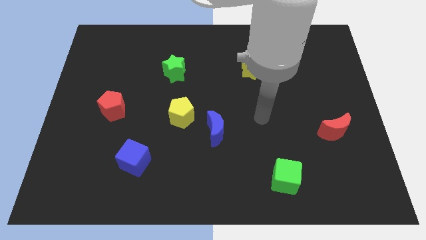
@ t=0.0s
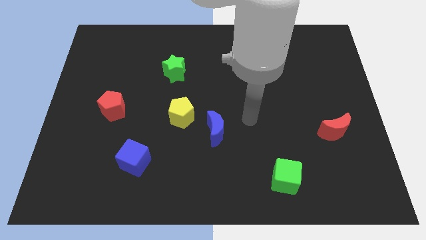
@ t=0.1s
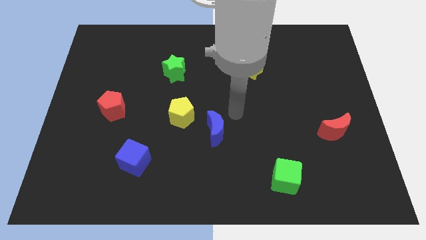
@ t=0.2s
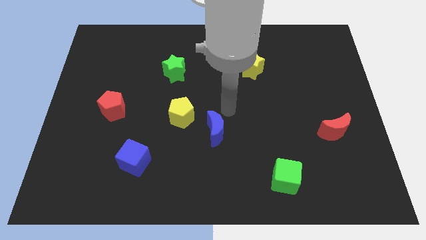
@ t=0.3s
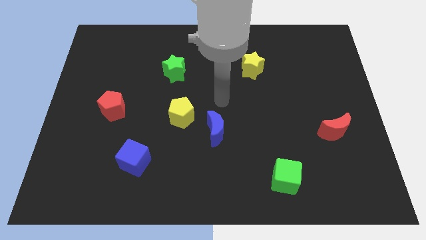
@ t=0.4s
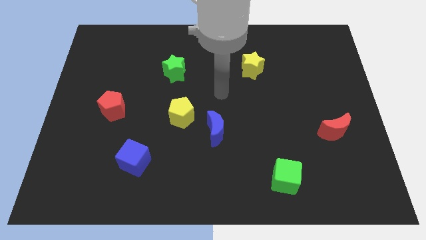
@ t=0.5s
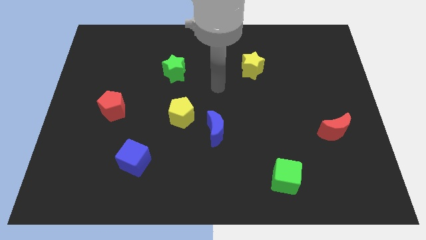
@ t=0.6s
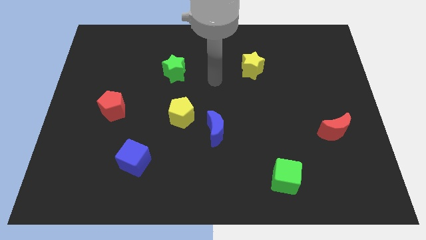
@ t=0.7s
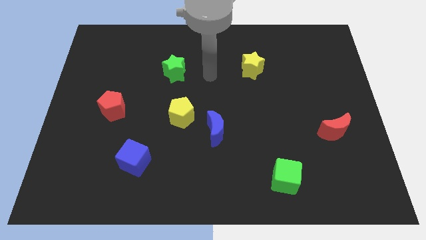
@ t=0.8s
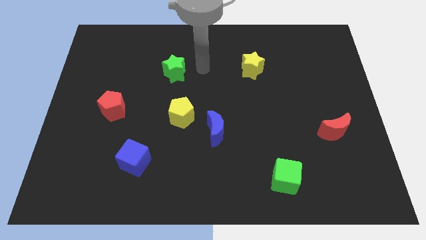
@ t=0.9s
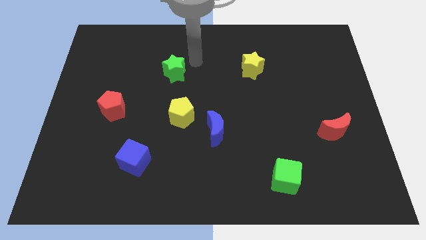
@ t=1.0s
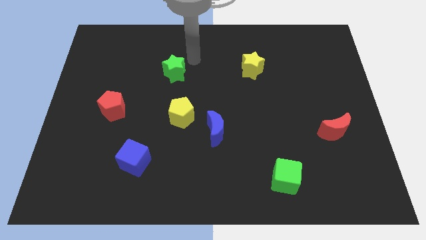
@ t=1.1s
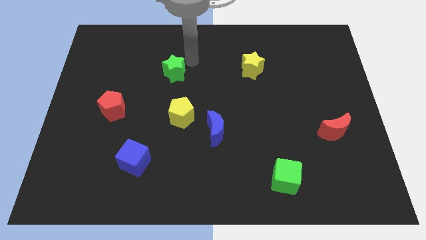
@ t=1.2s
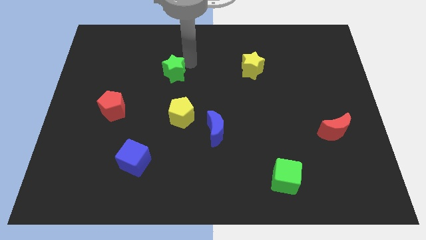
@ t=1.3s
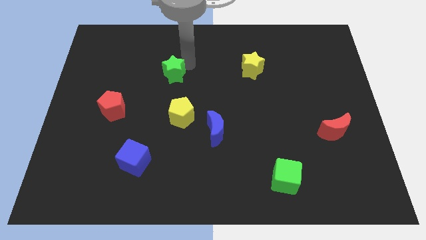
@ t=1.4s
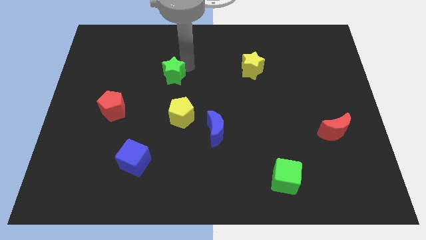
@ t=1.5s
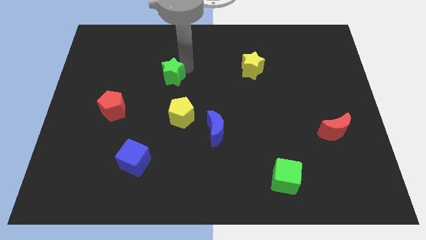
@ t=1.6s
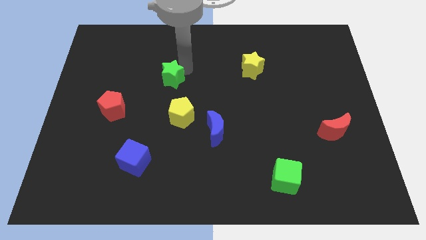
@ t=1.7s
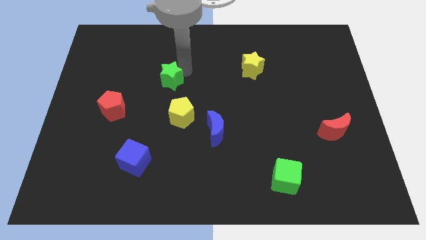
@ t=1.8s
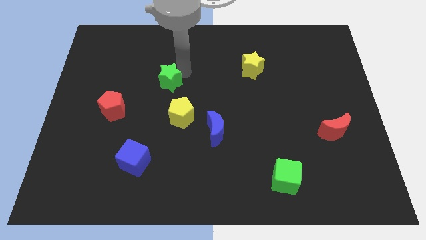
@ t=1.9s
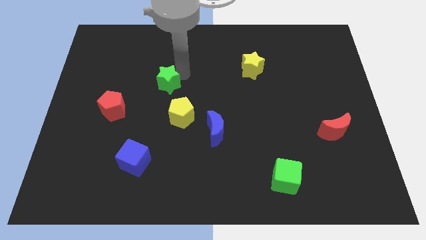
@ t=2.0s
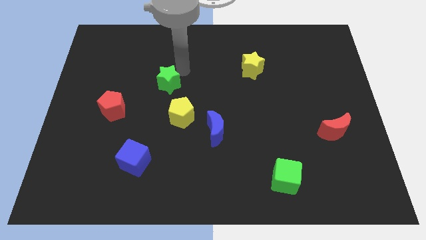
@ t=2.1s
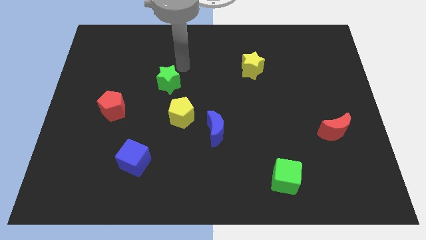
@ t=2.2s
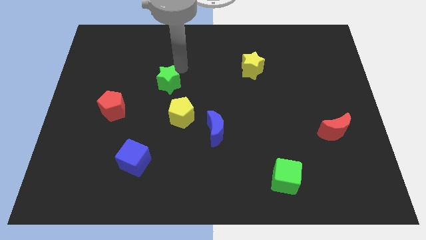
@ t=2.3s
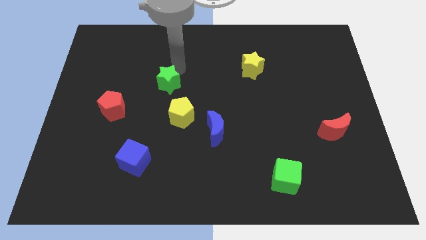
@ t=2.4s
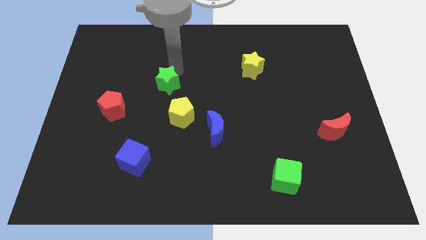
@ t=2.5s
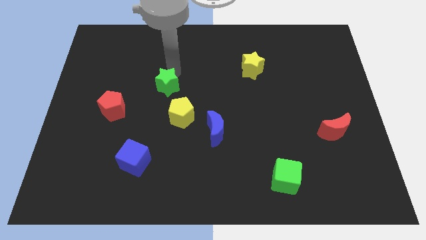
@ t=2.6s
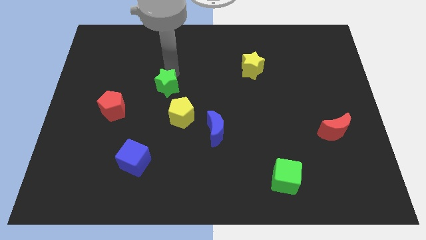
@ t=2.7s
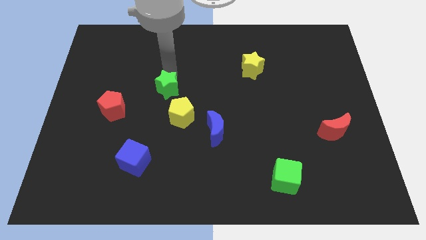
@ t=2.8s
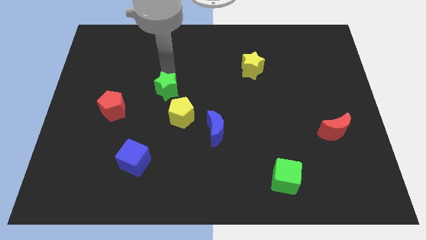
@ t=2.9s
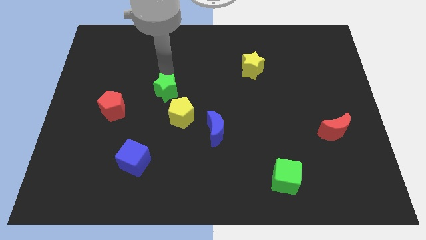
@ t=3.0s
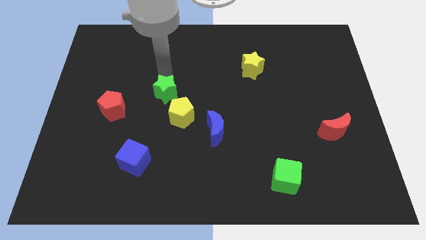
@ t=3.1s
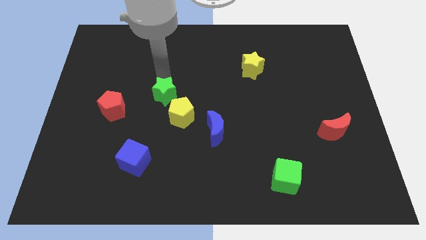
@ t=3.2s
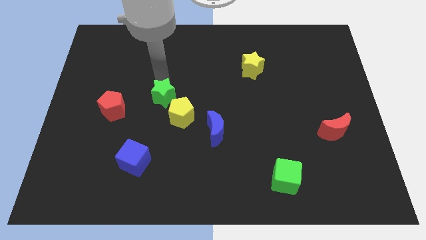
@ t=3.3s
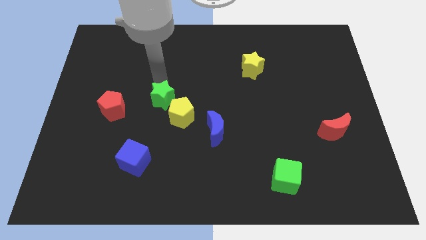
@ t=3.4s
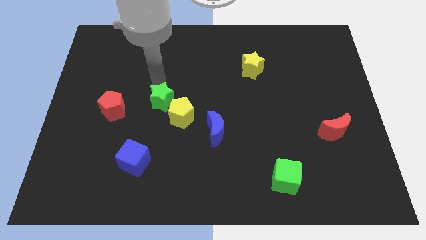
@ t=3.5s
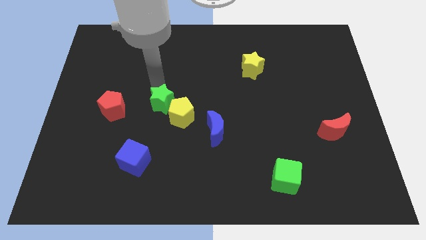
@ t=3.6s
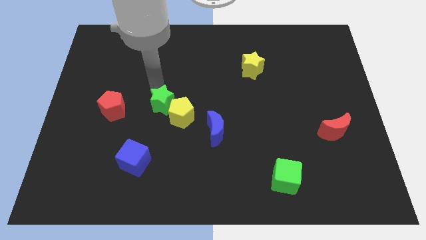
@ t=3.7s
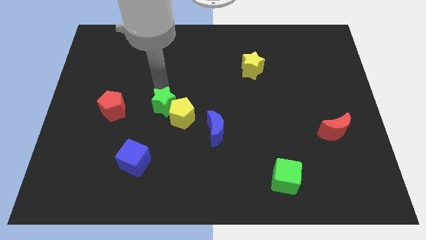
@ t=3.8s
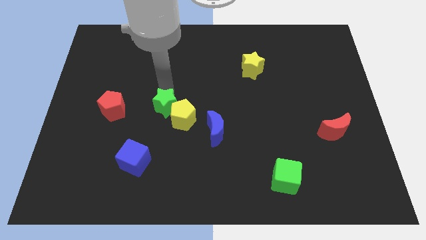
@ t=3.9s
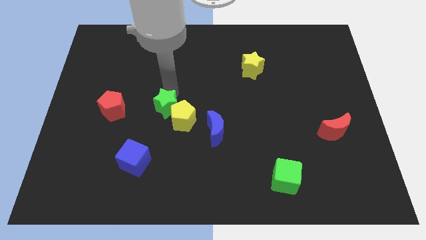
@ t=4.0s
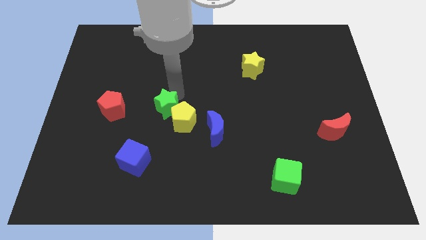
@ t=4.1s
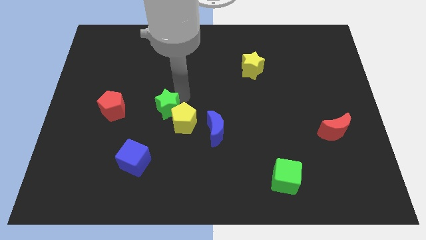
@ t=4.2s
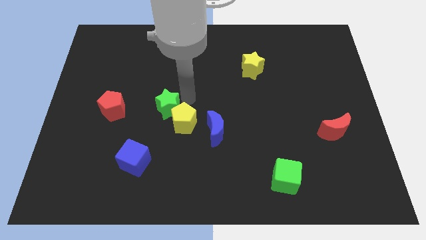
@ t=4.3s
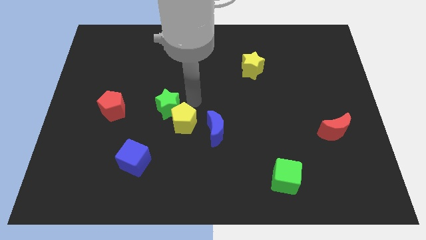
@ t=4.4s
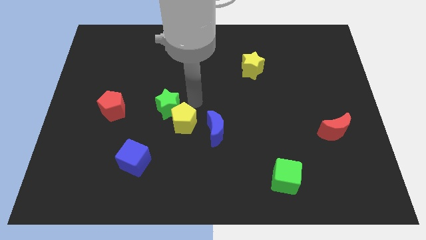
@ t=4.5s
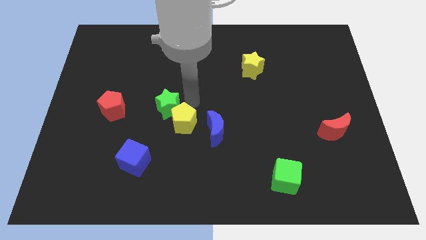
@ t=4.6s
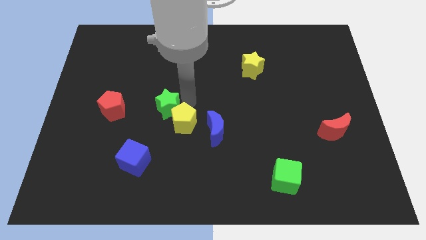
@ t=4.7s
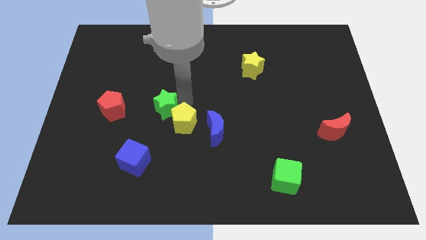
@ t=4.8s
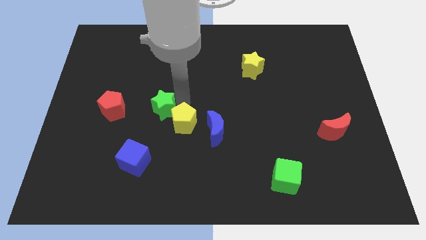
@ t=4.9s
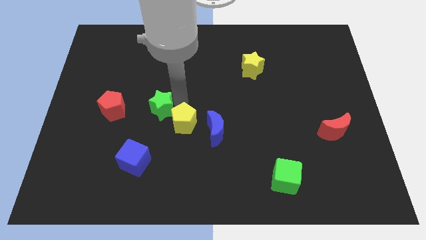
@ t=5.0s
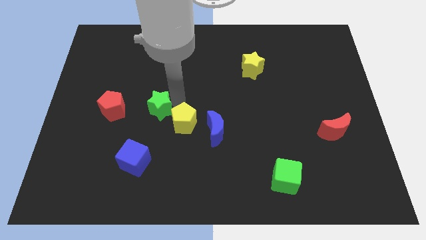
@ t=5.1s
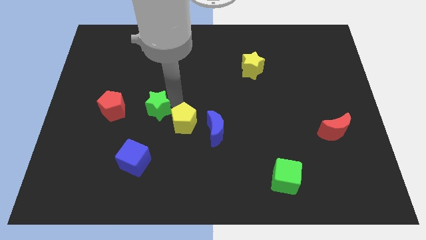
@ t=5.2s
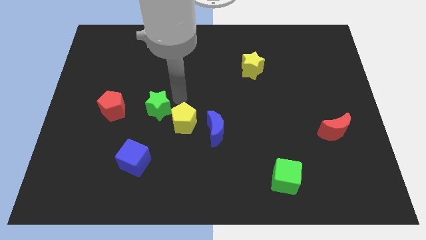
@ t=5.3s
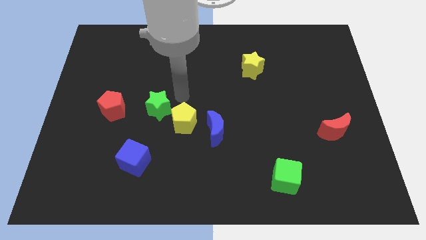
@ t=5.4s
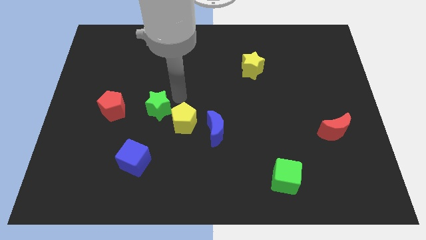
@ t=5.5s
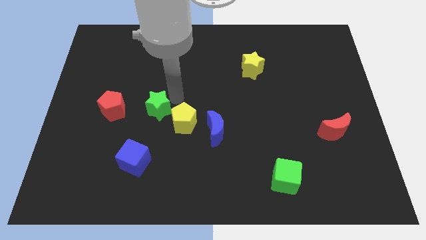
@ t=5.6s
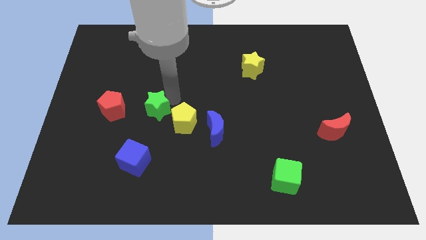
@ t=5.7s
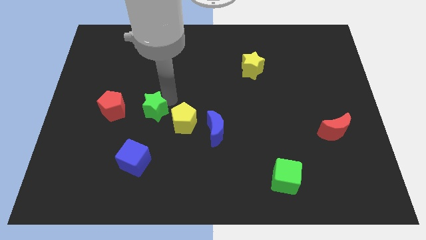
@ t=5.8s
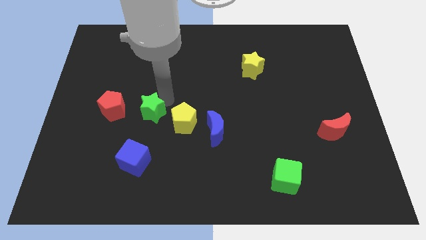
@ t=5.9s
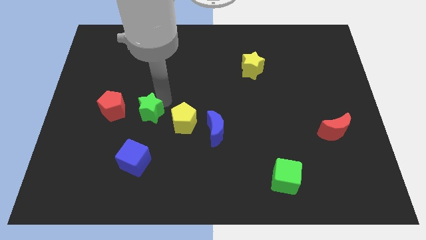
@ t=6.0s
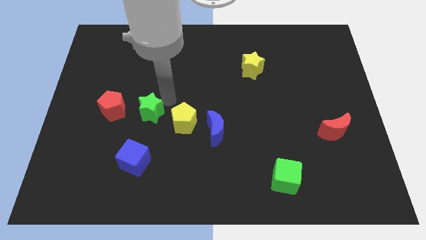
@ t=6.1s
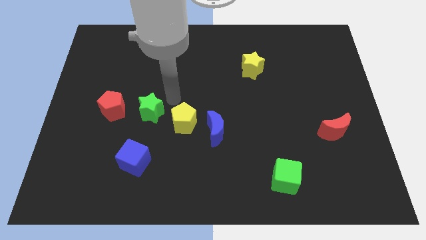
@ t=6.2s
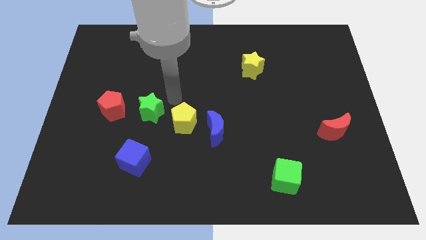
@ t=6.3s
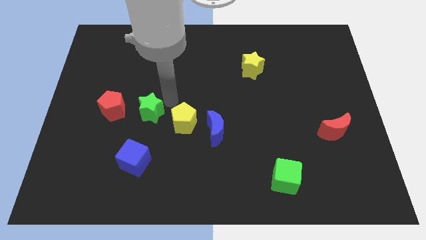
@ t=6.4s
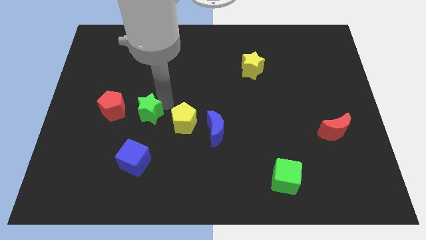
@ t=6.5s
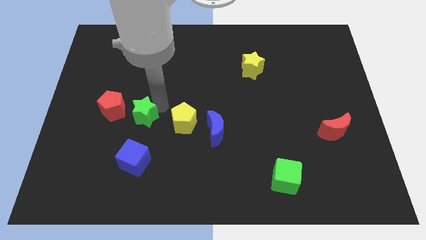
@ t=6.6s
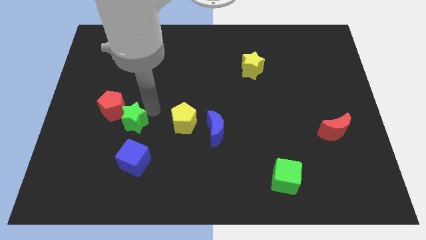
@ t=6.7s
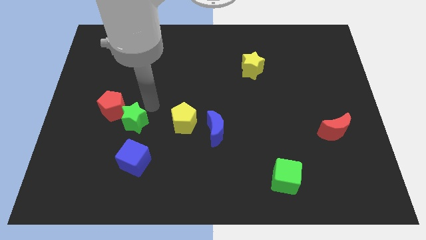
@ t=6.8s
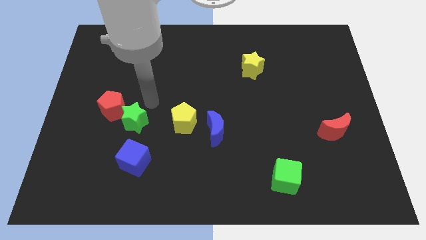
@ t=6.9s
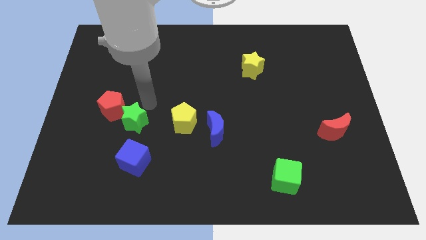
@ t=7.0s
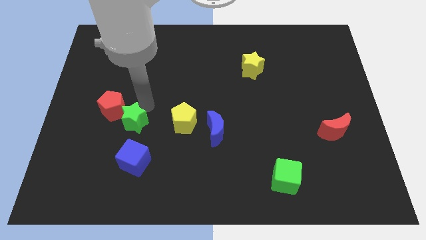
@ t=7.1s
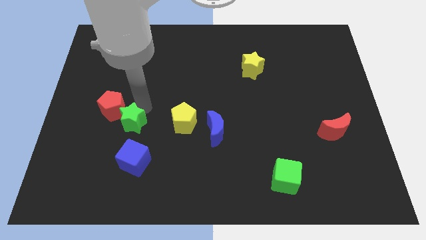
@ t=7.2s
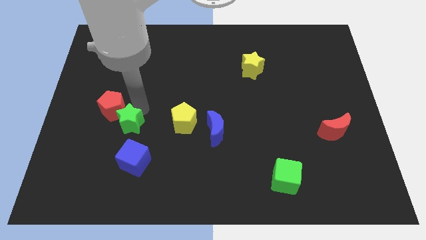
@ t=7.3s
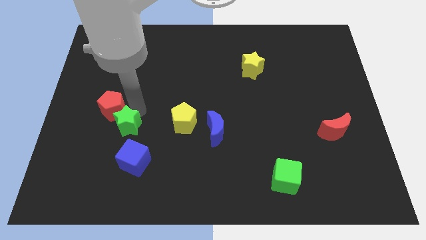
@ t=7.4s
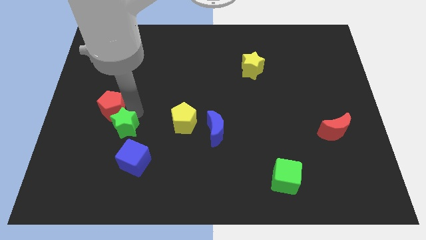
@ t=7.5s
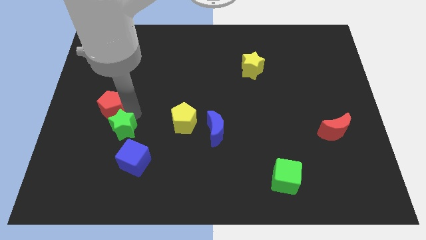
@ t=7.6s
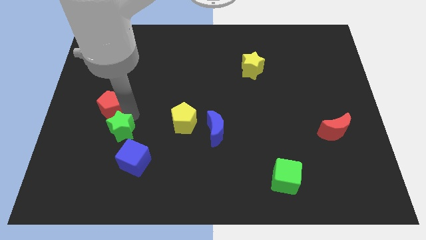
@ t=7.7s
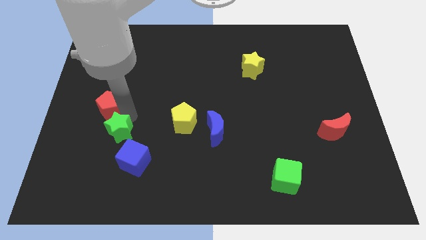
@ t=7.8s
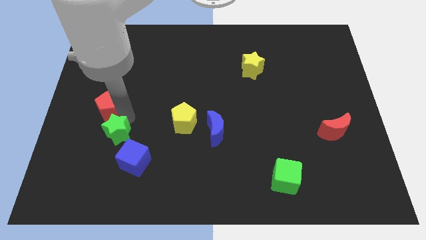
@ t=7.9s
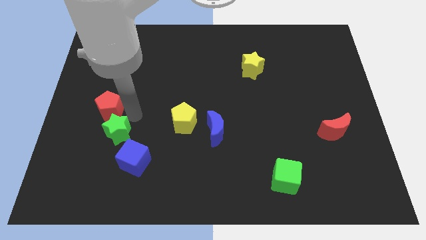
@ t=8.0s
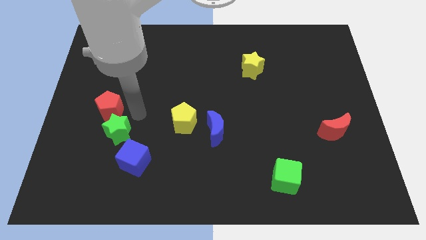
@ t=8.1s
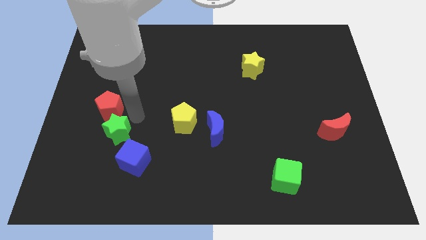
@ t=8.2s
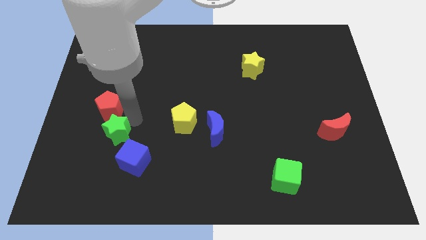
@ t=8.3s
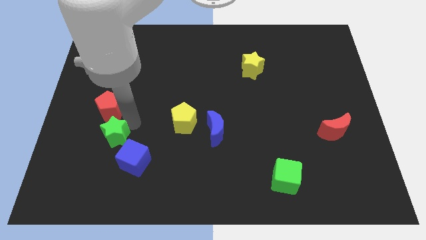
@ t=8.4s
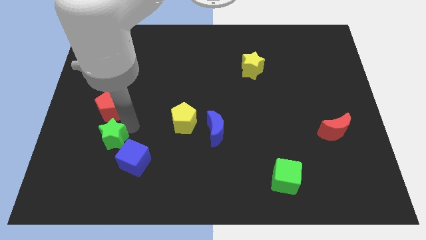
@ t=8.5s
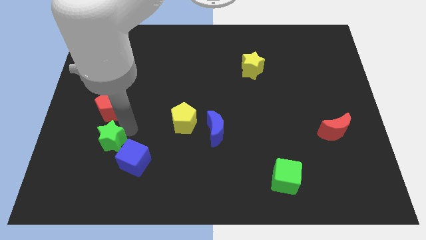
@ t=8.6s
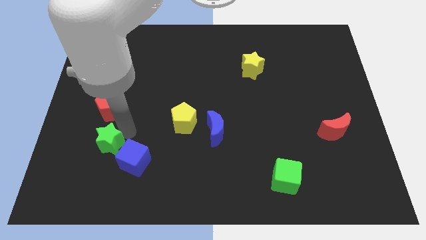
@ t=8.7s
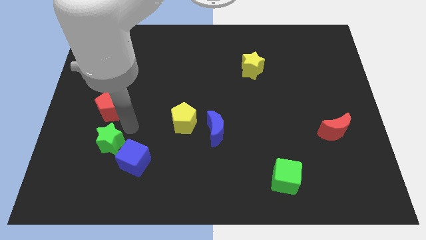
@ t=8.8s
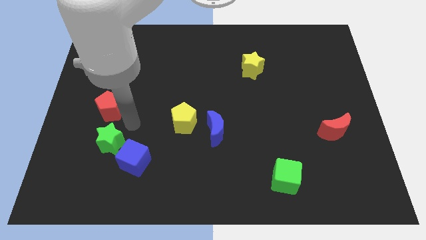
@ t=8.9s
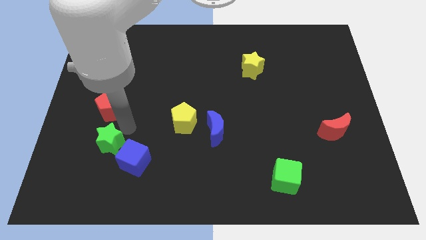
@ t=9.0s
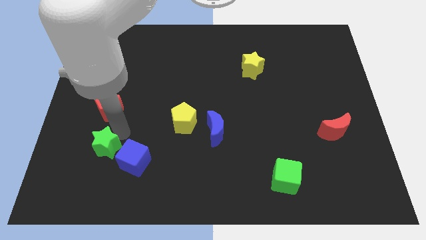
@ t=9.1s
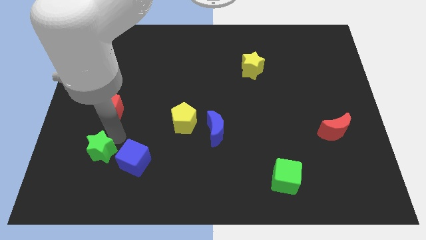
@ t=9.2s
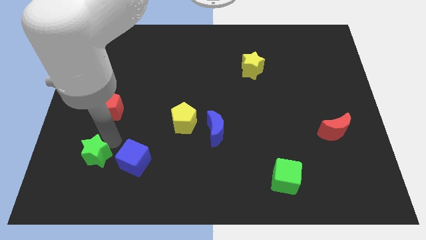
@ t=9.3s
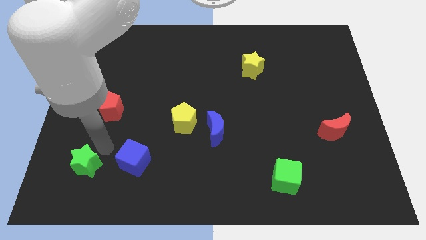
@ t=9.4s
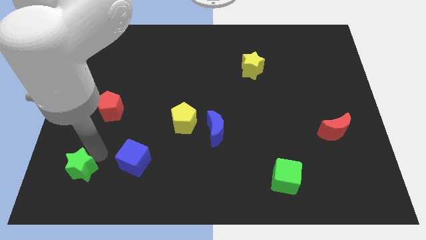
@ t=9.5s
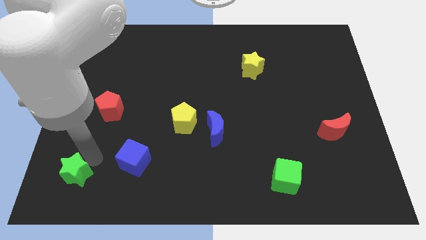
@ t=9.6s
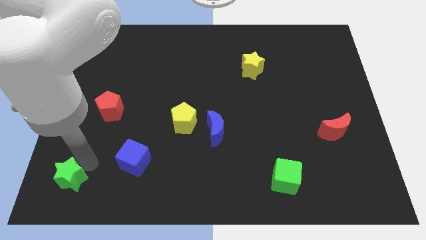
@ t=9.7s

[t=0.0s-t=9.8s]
put the green star to the lower left corner
